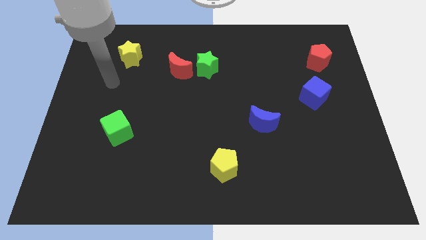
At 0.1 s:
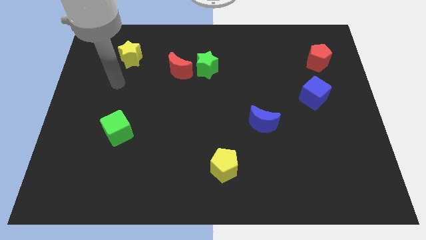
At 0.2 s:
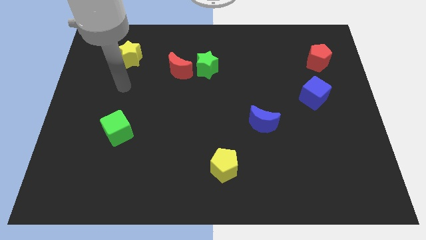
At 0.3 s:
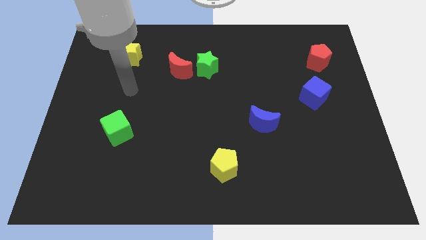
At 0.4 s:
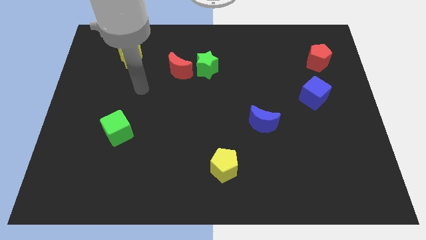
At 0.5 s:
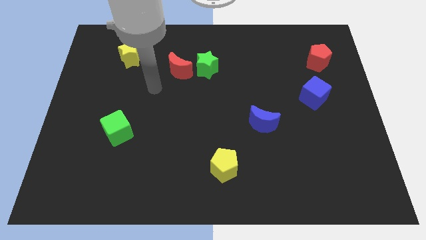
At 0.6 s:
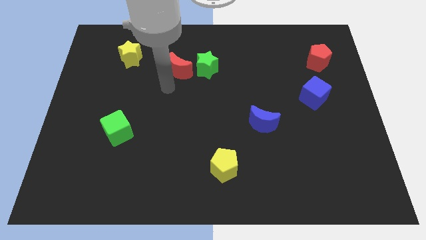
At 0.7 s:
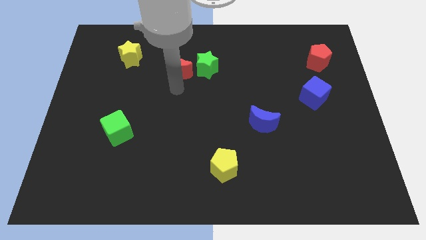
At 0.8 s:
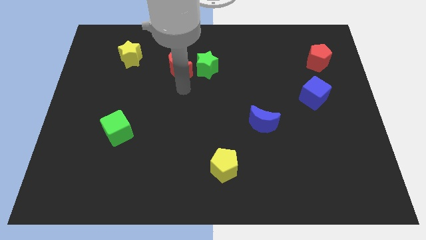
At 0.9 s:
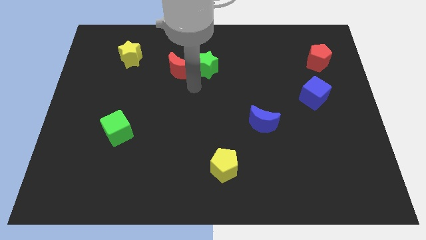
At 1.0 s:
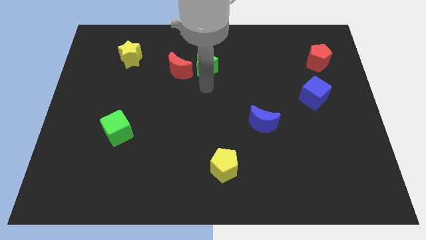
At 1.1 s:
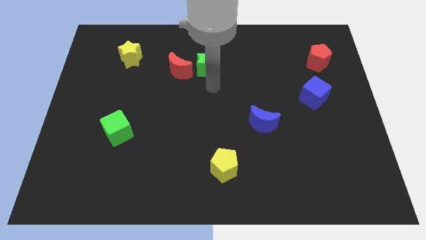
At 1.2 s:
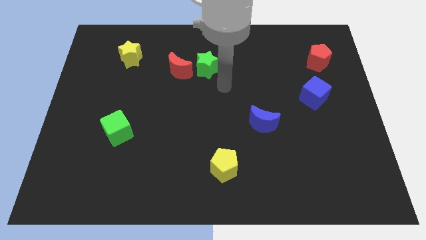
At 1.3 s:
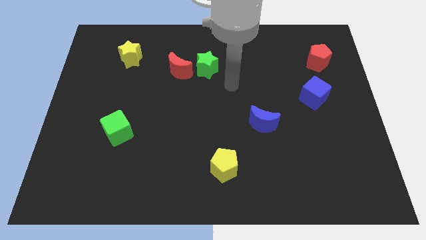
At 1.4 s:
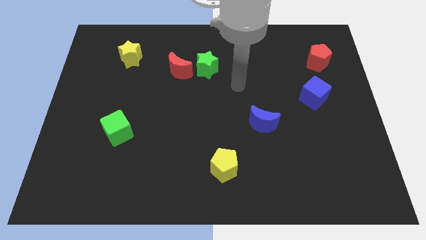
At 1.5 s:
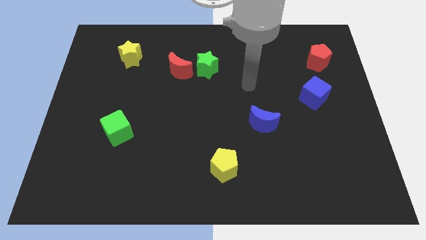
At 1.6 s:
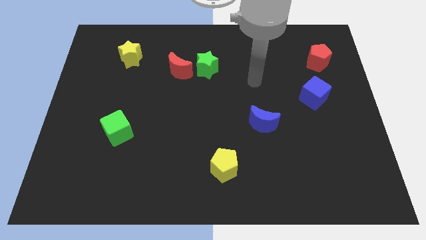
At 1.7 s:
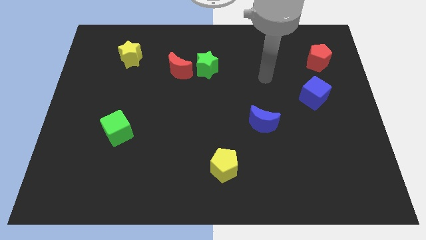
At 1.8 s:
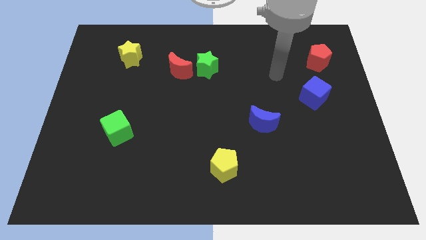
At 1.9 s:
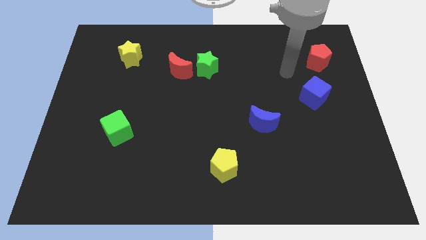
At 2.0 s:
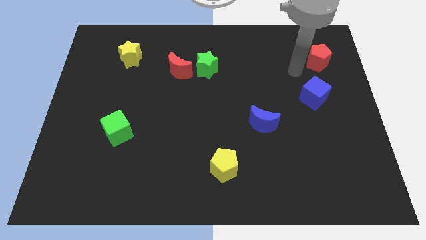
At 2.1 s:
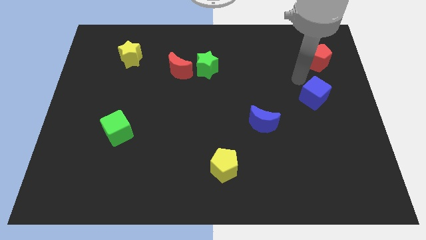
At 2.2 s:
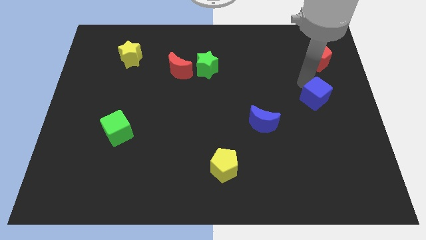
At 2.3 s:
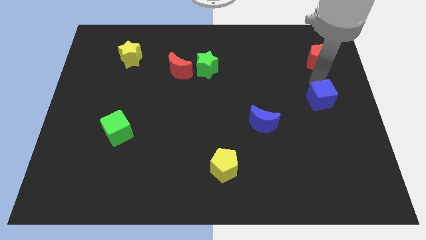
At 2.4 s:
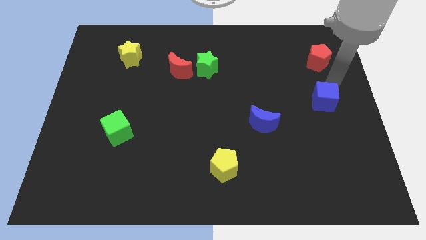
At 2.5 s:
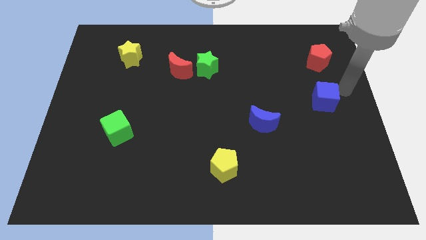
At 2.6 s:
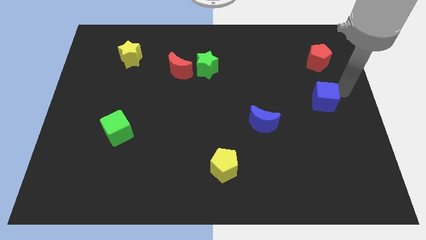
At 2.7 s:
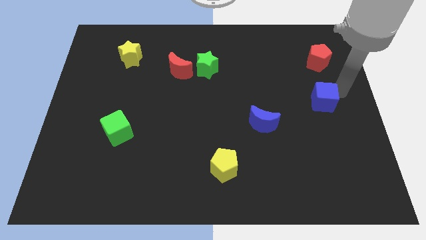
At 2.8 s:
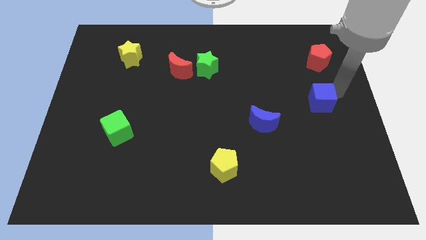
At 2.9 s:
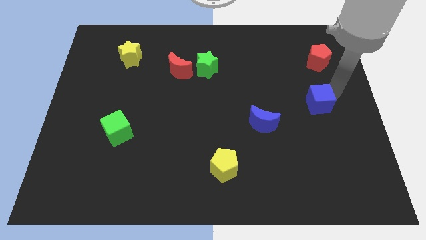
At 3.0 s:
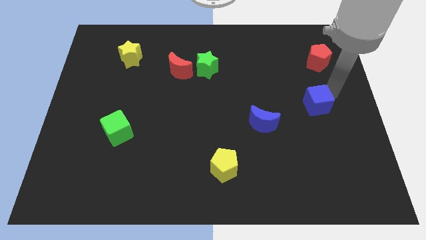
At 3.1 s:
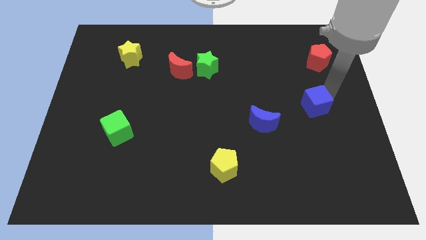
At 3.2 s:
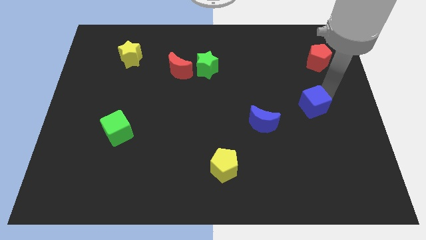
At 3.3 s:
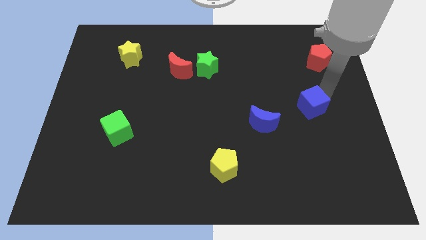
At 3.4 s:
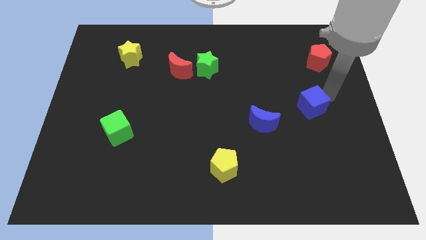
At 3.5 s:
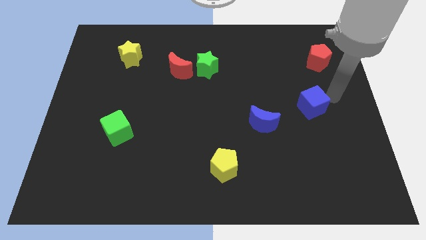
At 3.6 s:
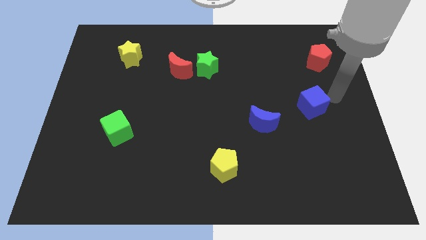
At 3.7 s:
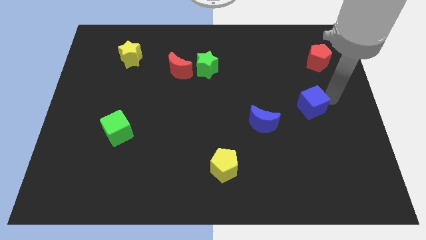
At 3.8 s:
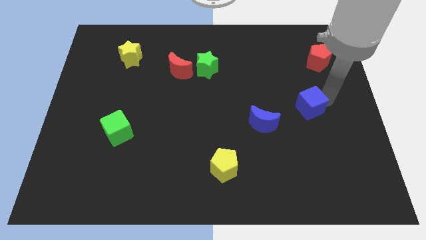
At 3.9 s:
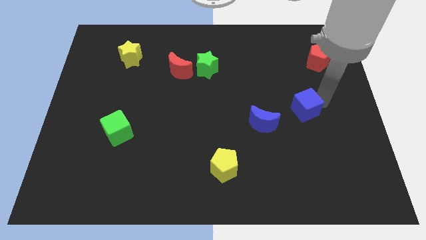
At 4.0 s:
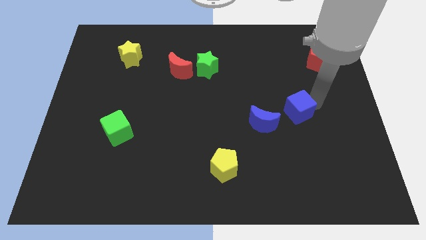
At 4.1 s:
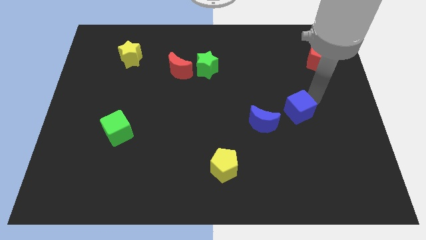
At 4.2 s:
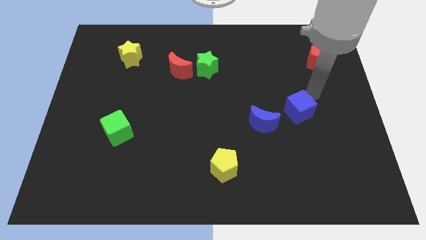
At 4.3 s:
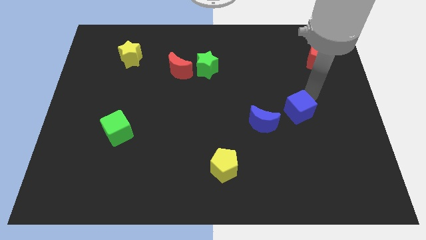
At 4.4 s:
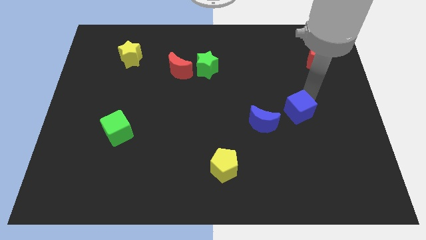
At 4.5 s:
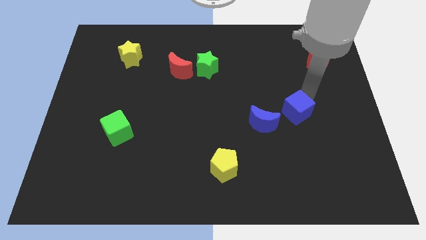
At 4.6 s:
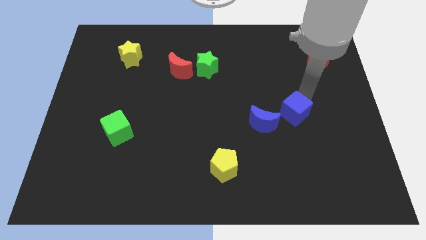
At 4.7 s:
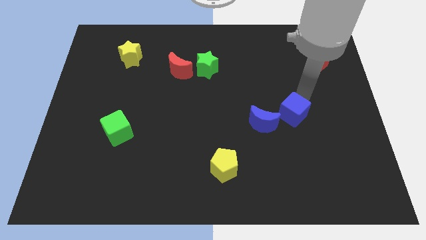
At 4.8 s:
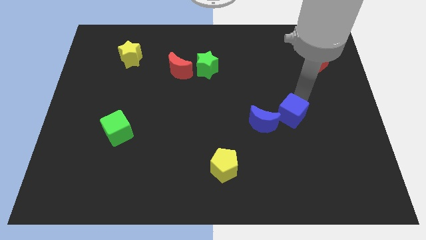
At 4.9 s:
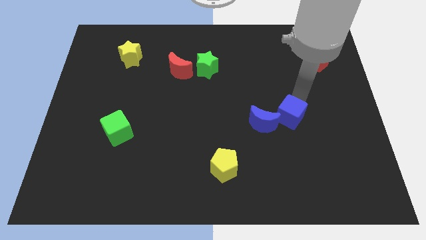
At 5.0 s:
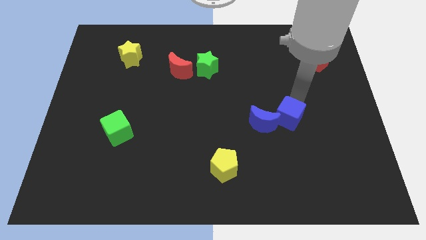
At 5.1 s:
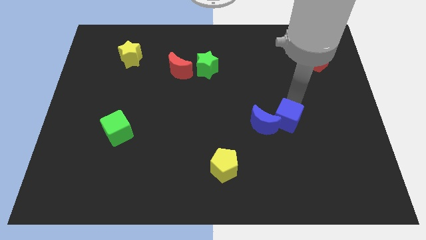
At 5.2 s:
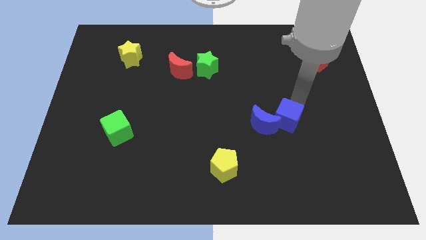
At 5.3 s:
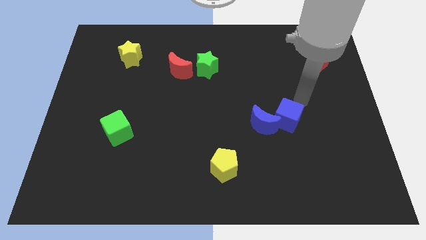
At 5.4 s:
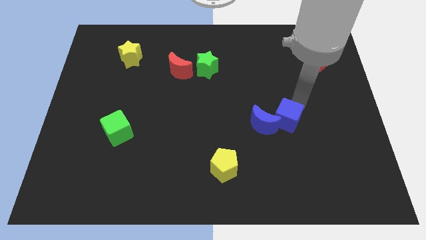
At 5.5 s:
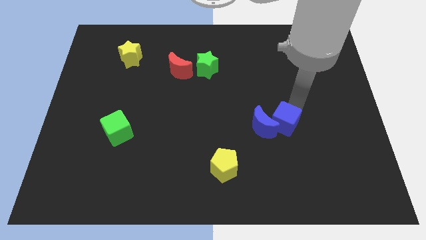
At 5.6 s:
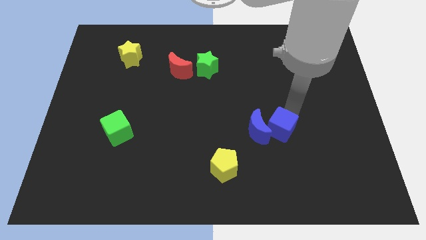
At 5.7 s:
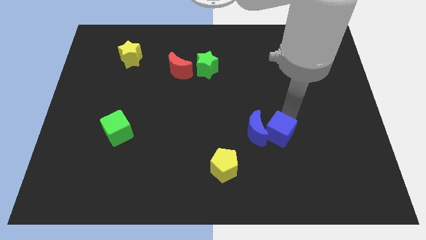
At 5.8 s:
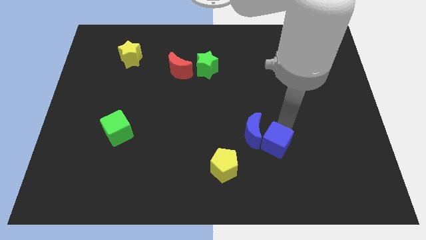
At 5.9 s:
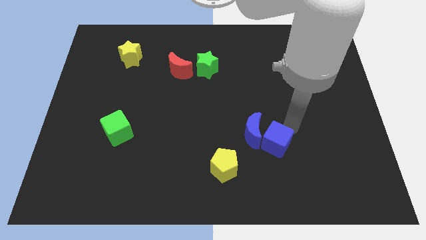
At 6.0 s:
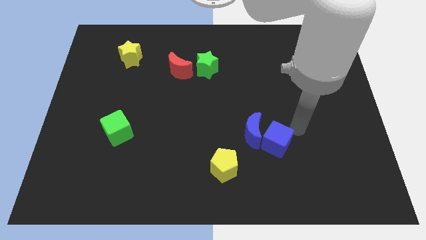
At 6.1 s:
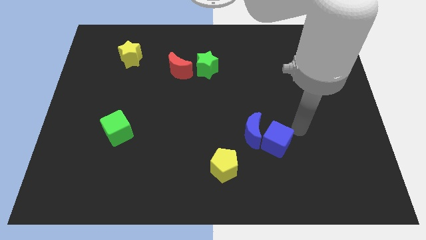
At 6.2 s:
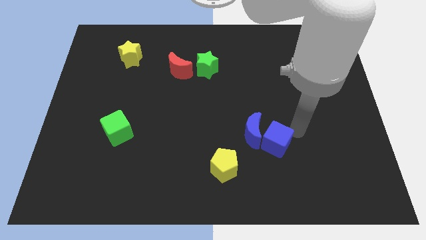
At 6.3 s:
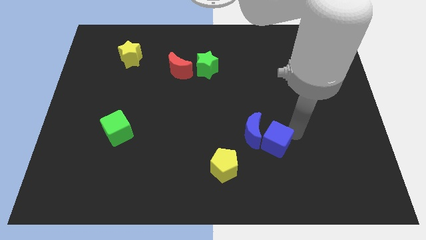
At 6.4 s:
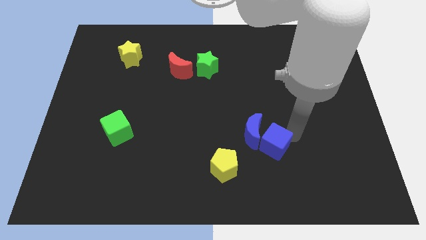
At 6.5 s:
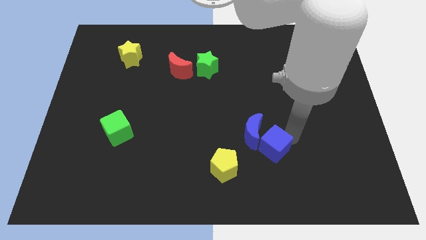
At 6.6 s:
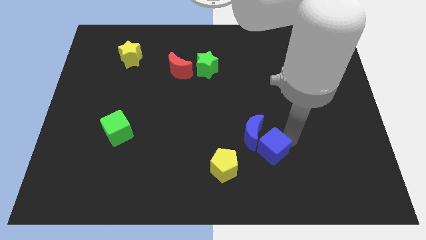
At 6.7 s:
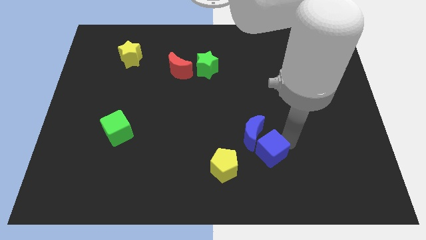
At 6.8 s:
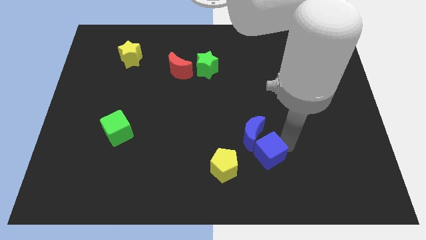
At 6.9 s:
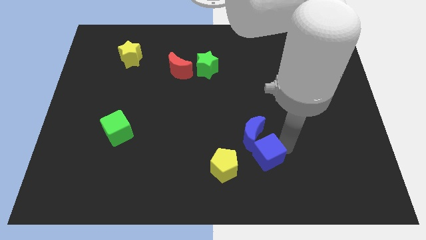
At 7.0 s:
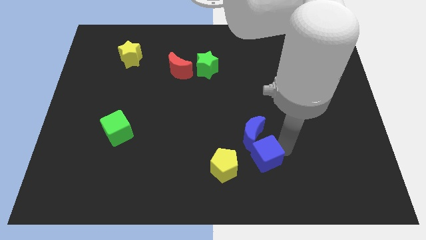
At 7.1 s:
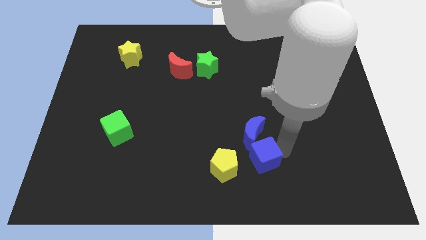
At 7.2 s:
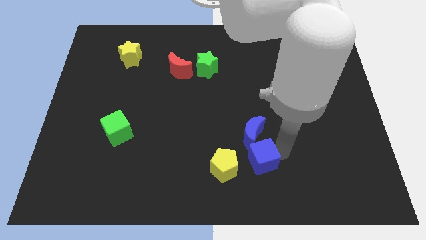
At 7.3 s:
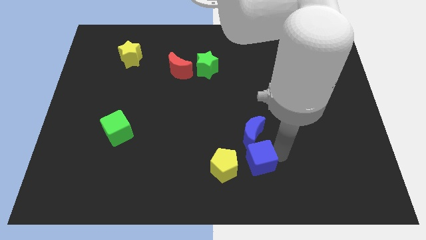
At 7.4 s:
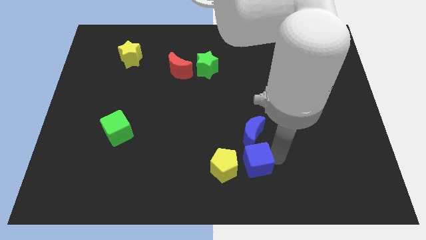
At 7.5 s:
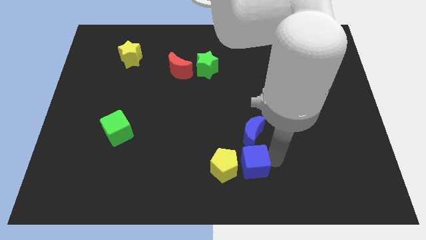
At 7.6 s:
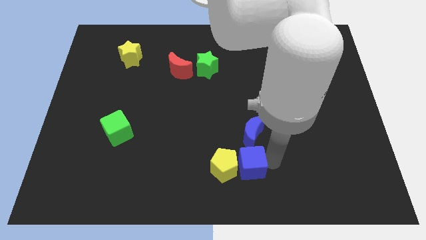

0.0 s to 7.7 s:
push the blue cube next to the yellow pentagon
